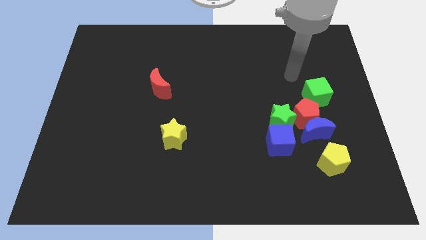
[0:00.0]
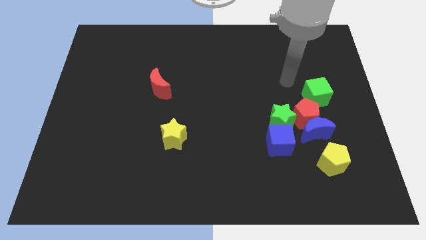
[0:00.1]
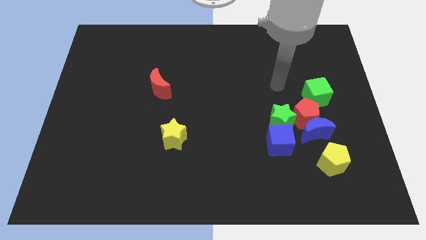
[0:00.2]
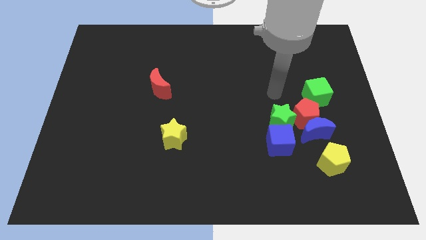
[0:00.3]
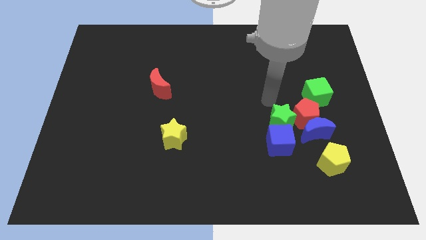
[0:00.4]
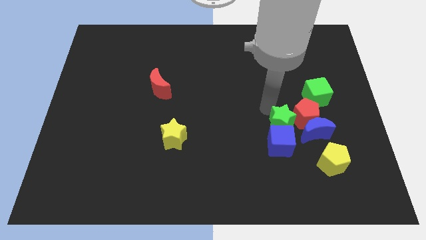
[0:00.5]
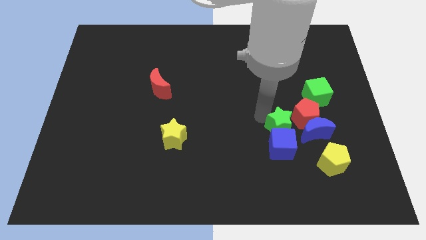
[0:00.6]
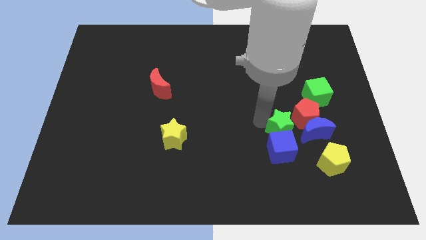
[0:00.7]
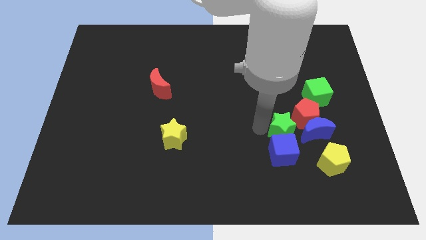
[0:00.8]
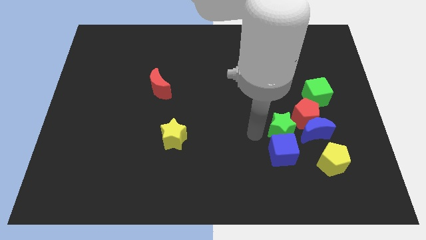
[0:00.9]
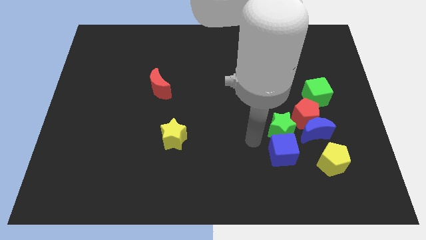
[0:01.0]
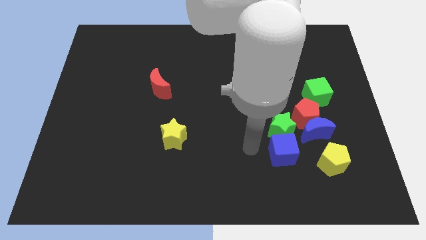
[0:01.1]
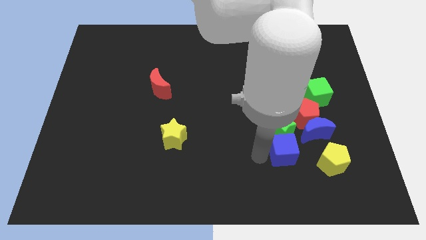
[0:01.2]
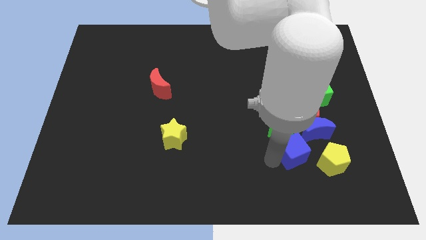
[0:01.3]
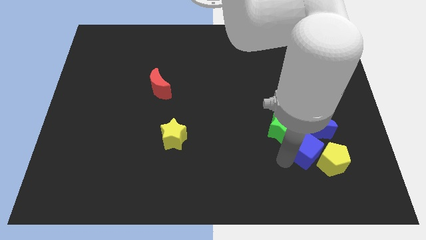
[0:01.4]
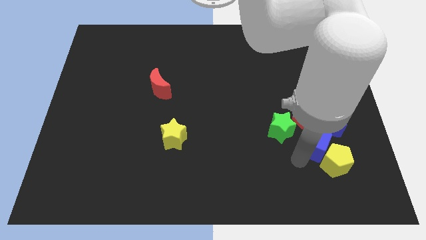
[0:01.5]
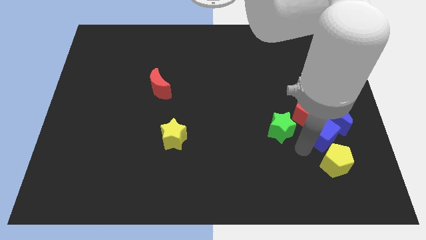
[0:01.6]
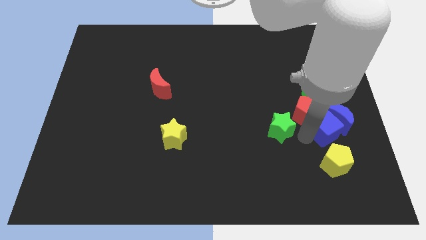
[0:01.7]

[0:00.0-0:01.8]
move the green star away from the red pentagon, blue cube, and blue moon

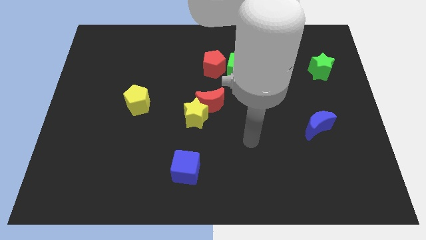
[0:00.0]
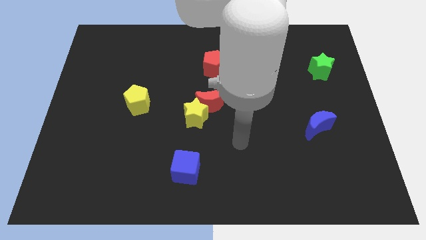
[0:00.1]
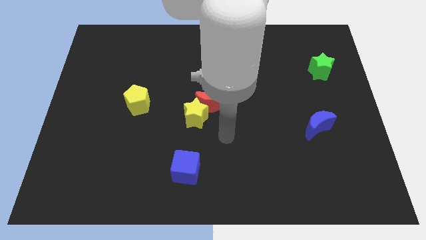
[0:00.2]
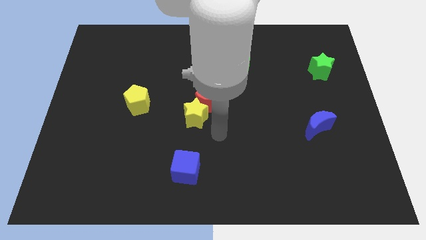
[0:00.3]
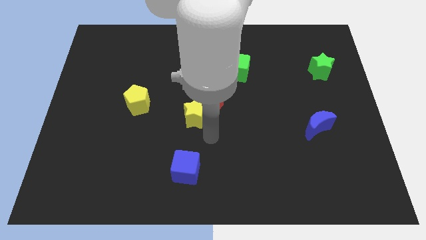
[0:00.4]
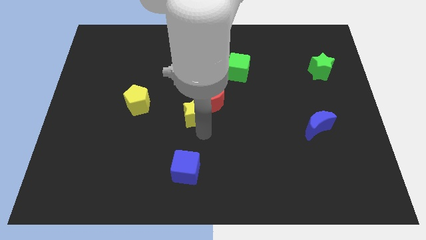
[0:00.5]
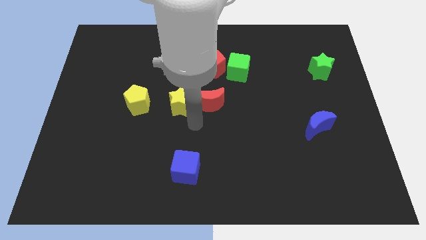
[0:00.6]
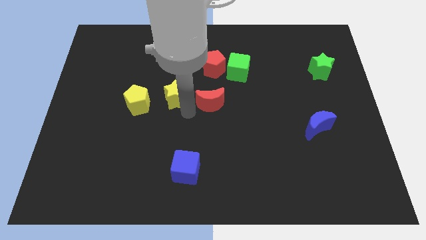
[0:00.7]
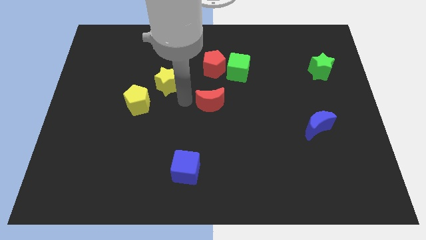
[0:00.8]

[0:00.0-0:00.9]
pull the red moon apart from the yellow star

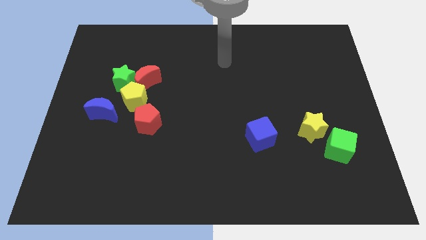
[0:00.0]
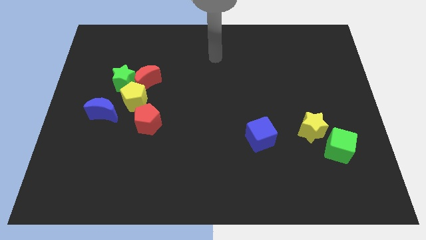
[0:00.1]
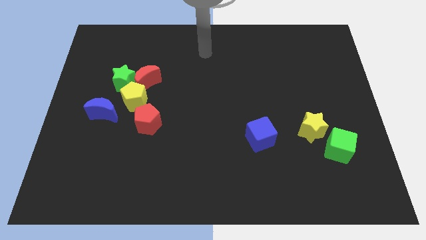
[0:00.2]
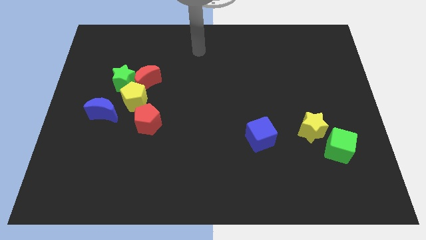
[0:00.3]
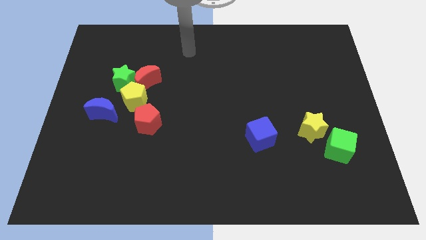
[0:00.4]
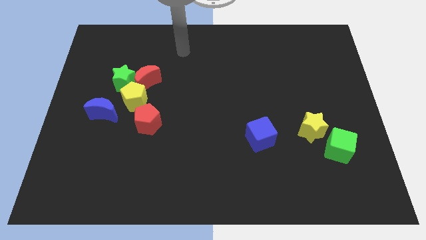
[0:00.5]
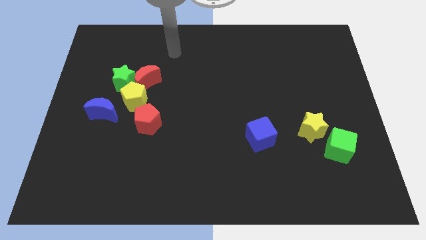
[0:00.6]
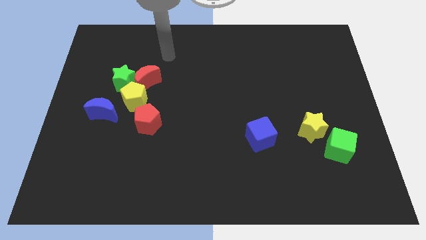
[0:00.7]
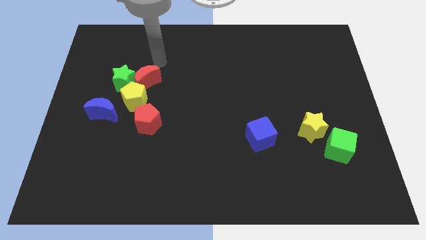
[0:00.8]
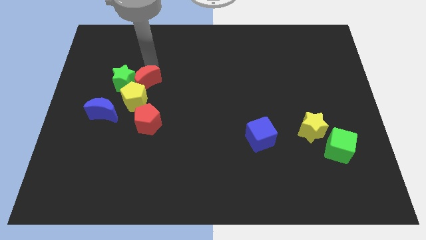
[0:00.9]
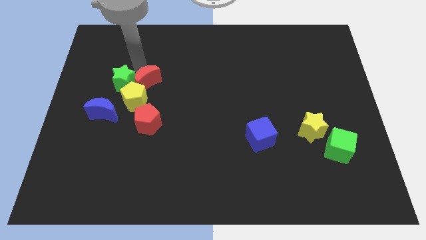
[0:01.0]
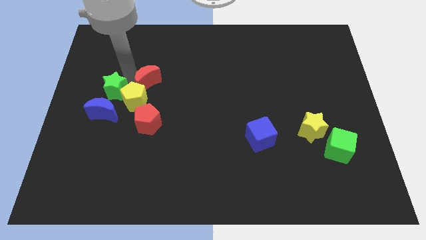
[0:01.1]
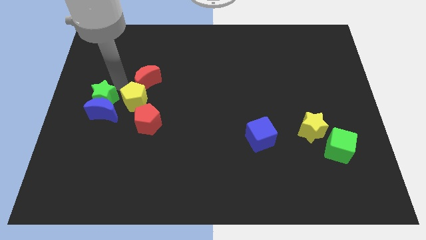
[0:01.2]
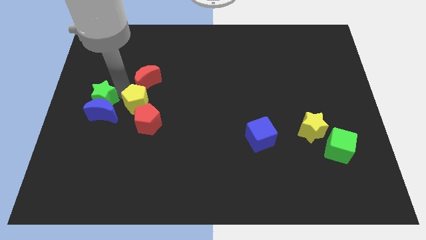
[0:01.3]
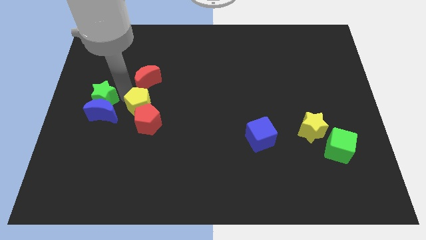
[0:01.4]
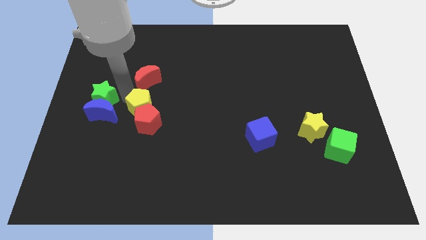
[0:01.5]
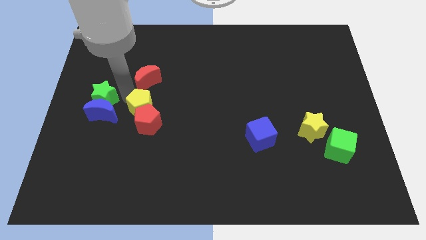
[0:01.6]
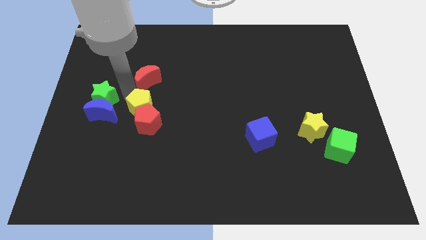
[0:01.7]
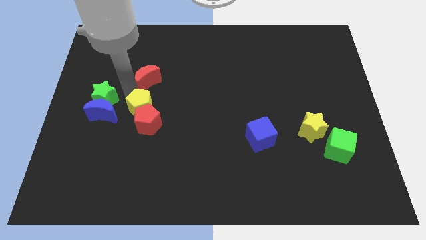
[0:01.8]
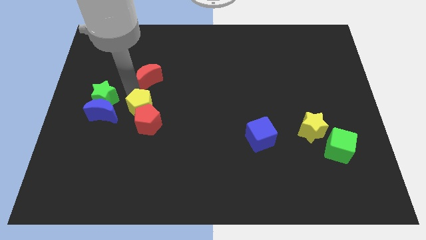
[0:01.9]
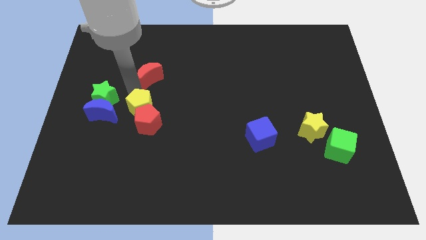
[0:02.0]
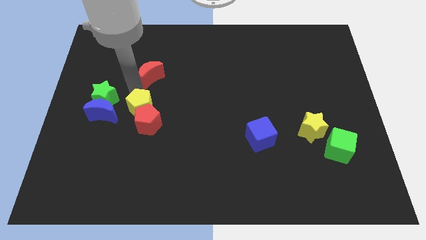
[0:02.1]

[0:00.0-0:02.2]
separate the red moon from the green star and yellow pentagon

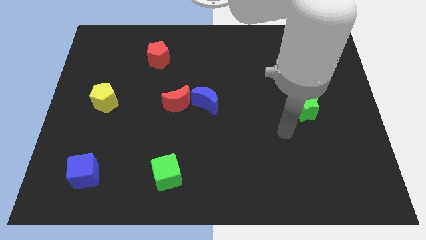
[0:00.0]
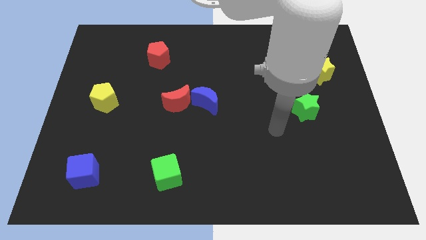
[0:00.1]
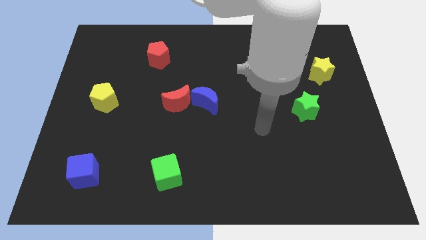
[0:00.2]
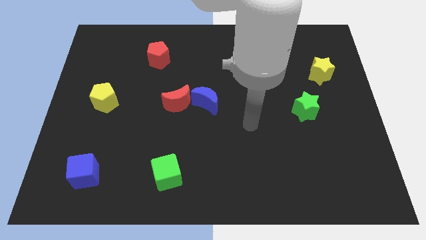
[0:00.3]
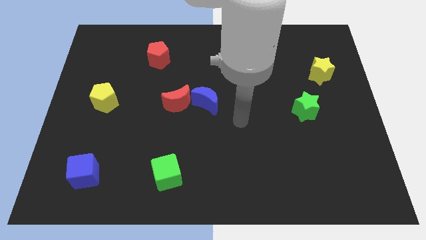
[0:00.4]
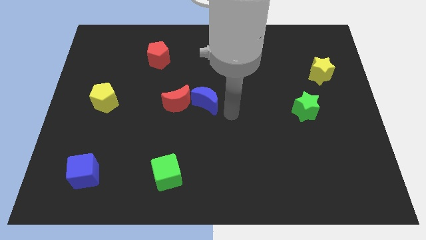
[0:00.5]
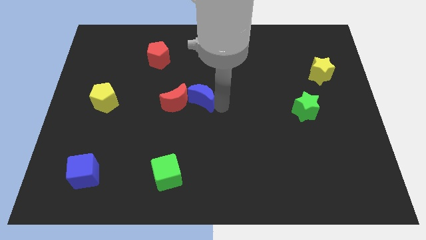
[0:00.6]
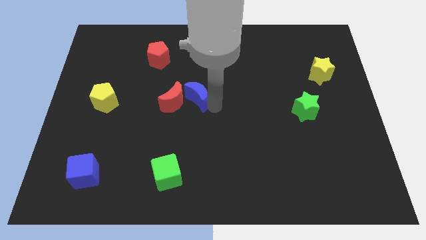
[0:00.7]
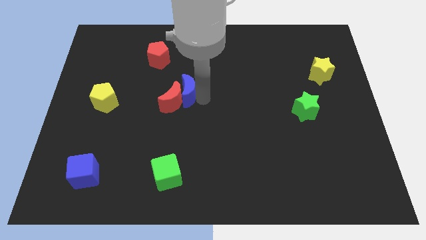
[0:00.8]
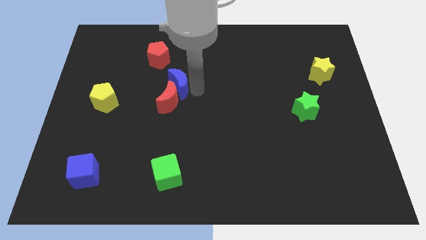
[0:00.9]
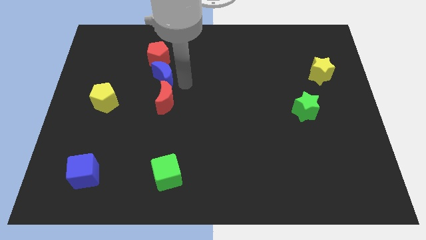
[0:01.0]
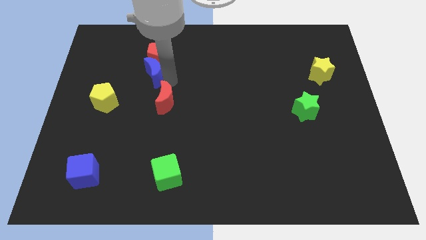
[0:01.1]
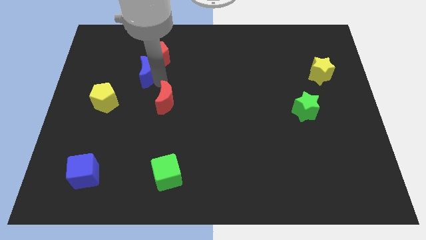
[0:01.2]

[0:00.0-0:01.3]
separate the red moon from the blue moon

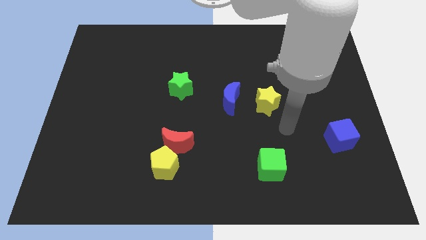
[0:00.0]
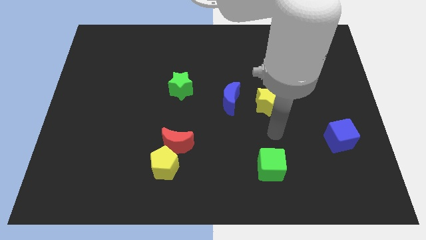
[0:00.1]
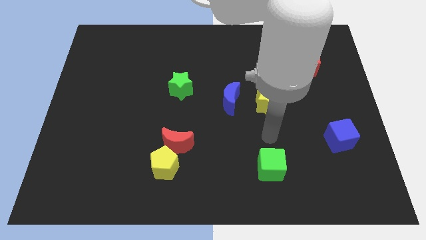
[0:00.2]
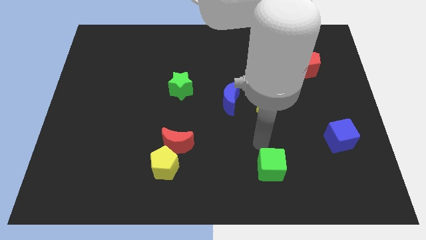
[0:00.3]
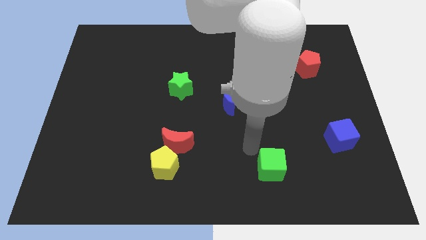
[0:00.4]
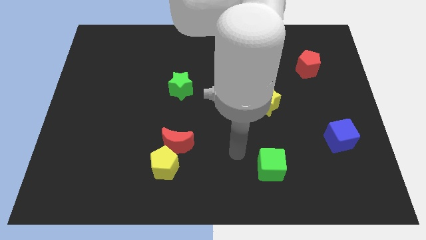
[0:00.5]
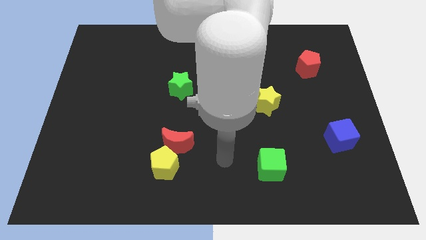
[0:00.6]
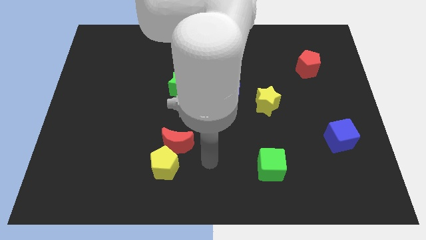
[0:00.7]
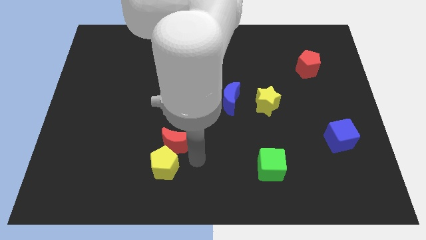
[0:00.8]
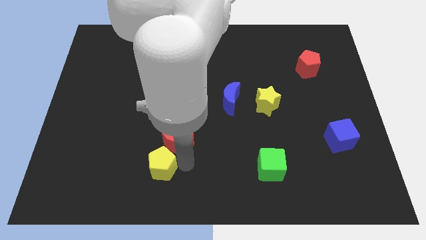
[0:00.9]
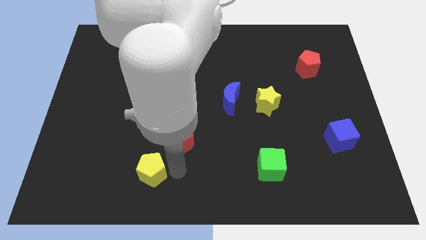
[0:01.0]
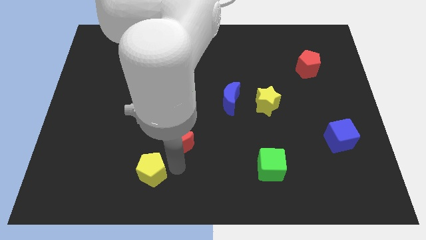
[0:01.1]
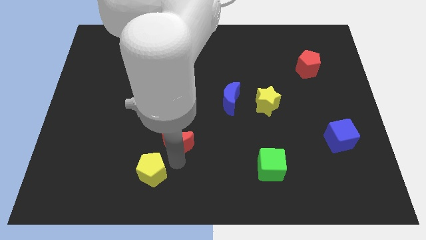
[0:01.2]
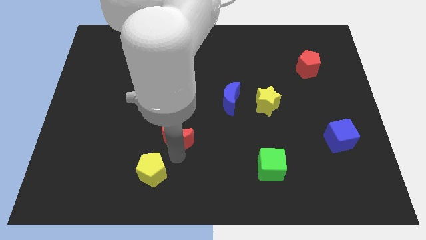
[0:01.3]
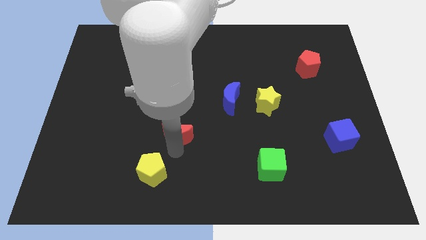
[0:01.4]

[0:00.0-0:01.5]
separate the red moon from the yellow pentagon

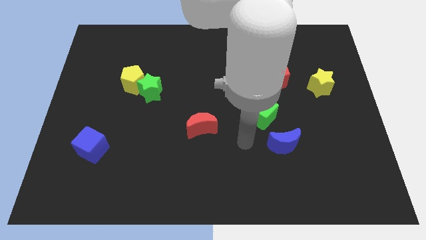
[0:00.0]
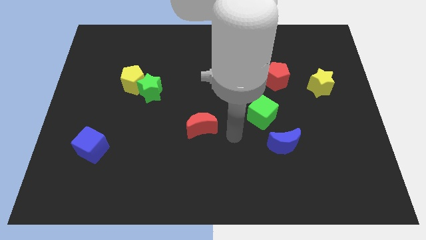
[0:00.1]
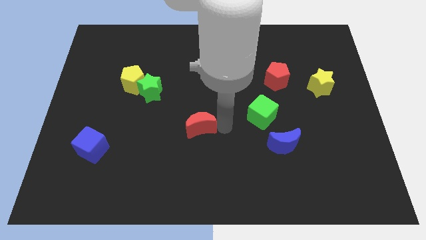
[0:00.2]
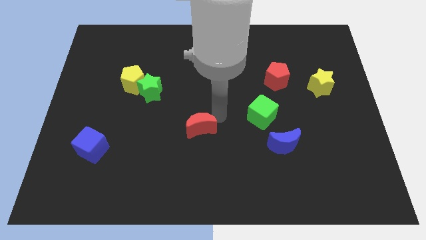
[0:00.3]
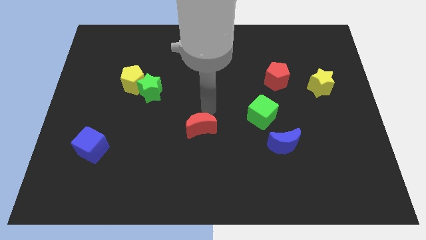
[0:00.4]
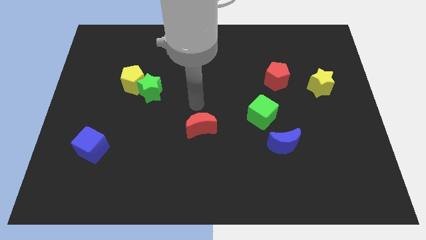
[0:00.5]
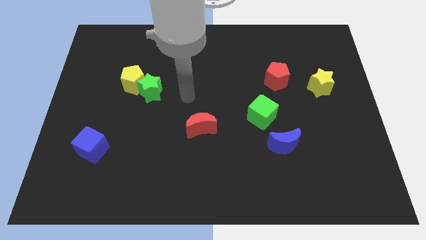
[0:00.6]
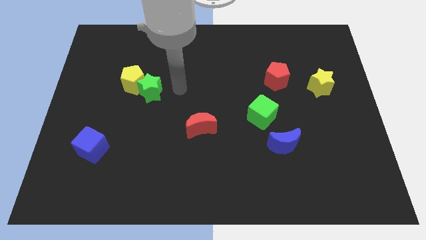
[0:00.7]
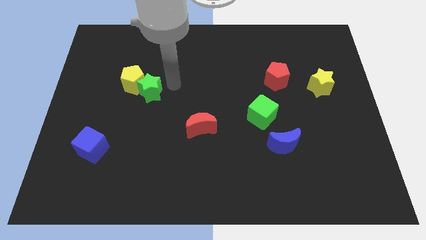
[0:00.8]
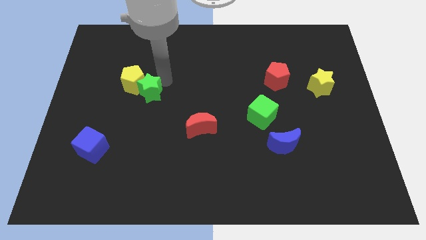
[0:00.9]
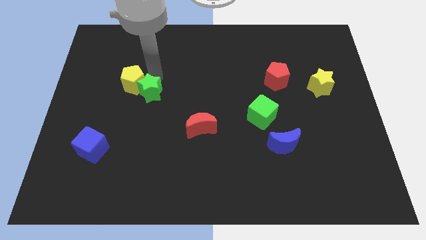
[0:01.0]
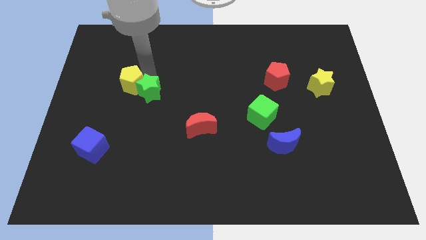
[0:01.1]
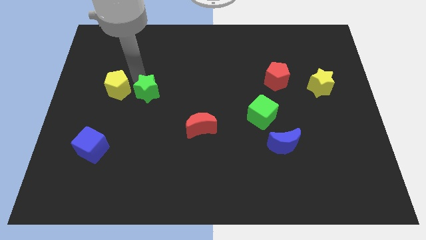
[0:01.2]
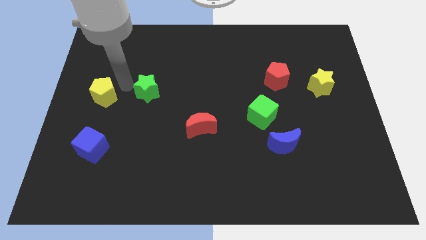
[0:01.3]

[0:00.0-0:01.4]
move the green star away from the yellow pentagon

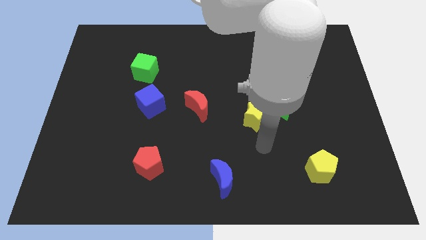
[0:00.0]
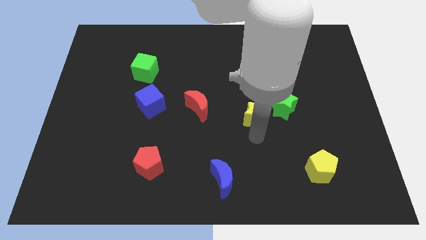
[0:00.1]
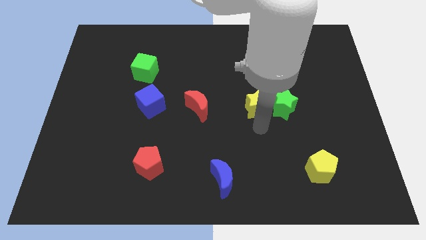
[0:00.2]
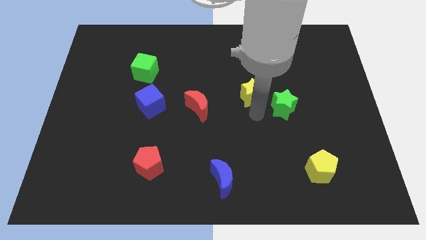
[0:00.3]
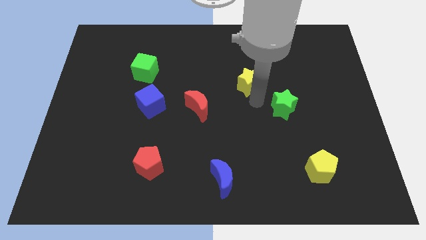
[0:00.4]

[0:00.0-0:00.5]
pull the green star apart from the yellow star
